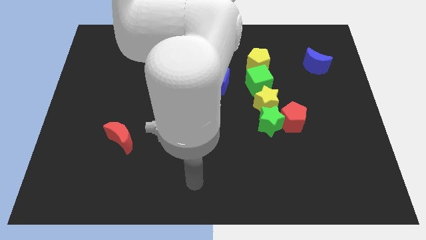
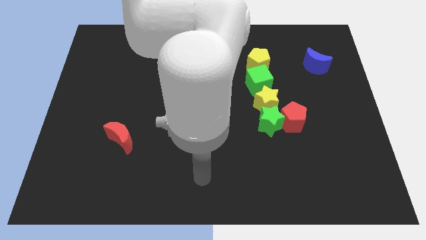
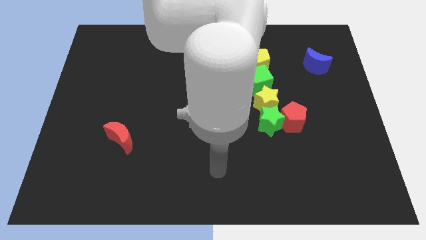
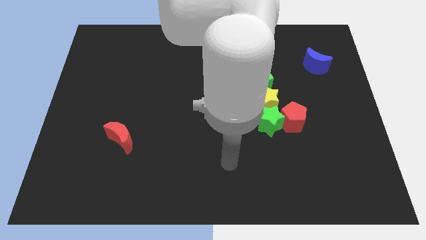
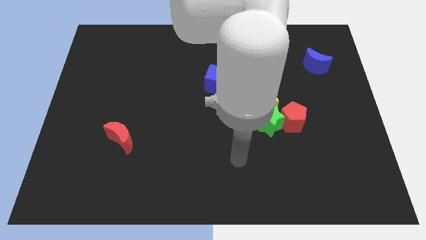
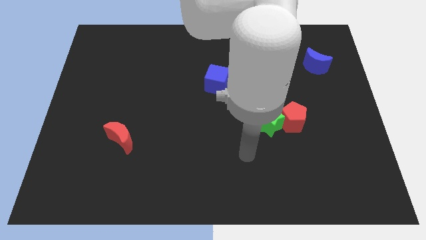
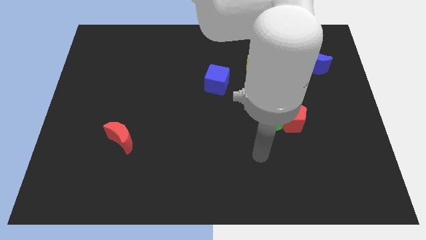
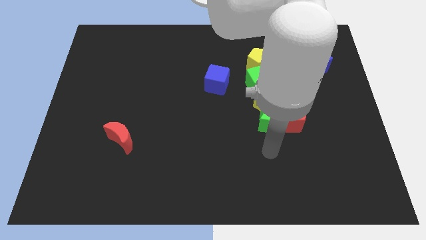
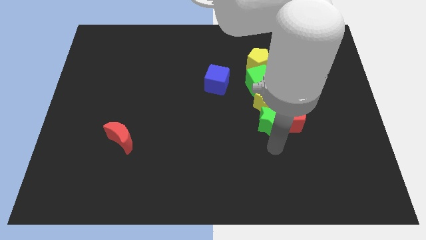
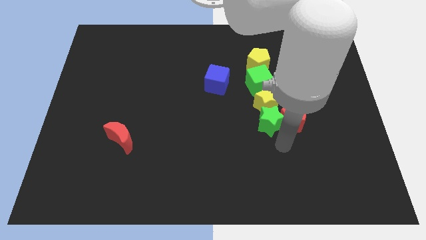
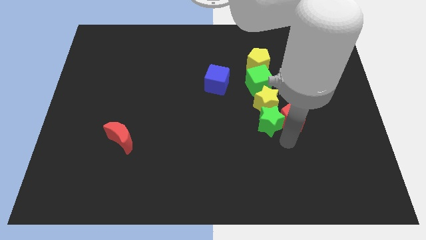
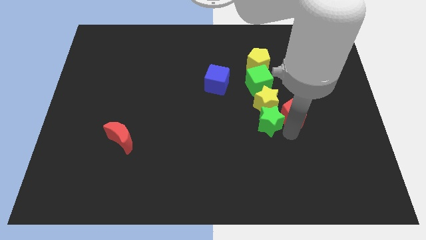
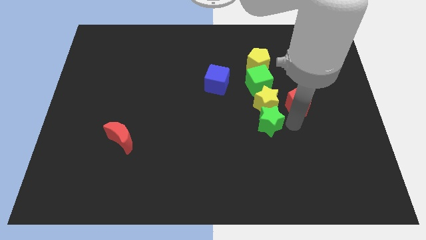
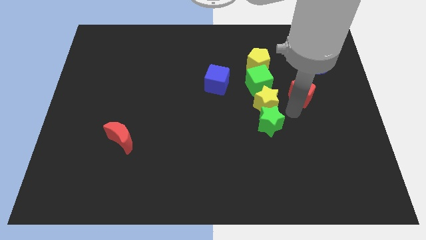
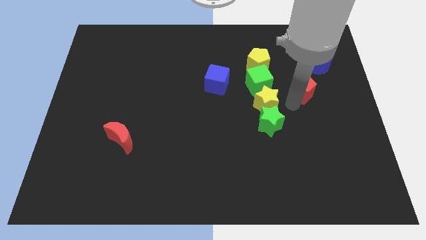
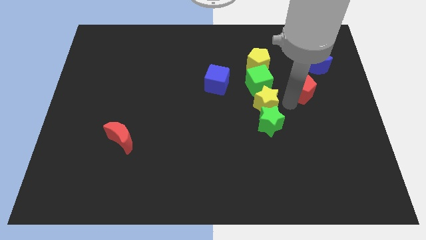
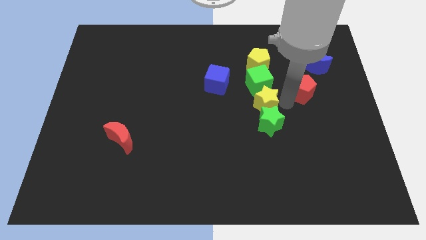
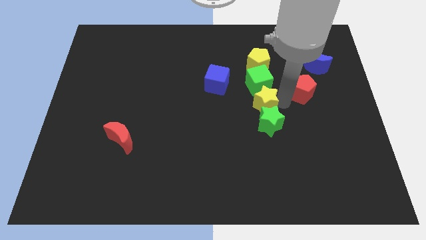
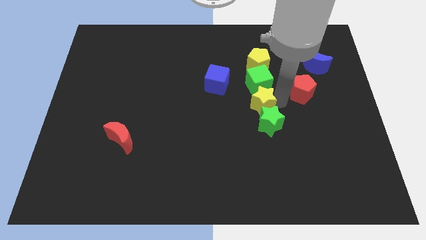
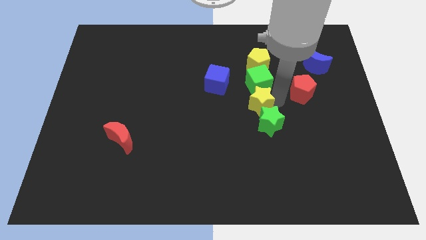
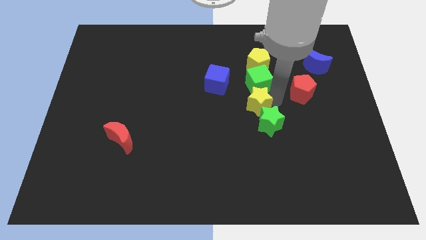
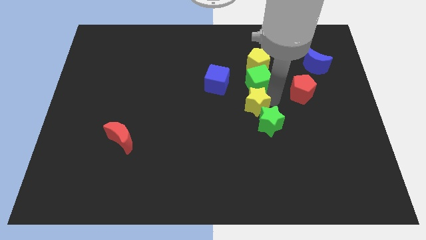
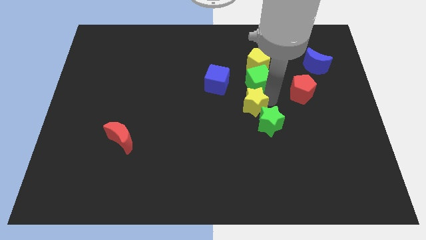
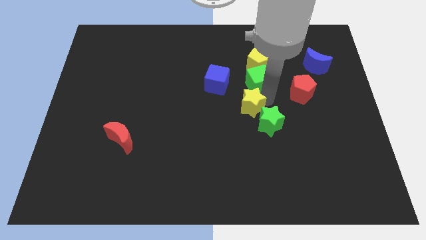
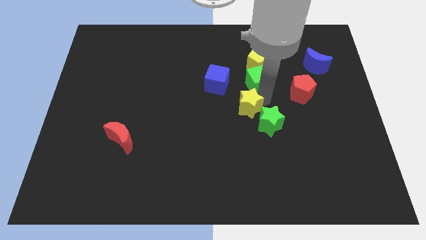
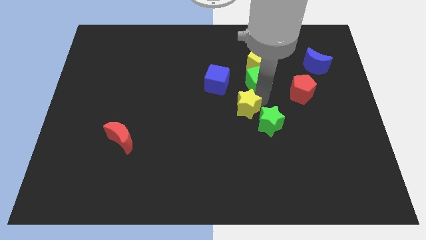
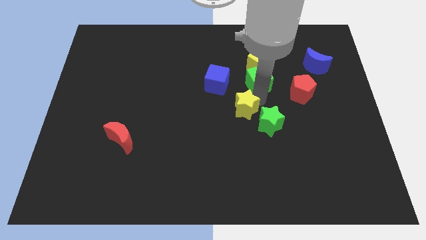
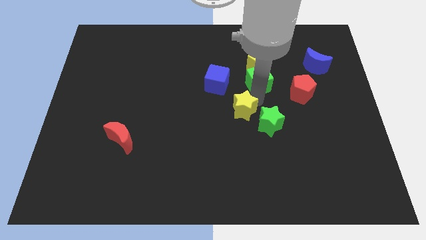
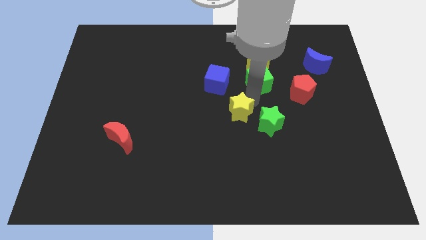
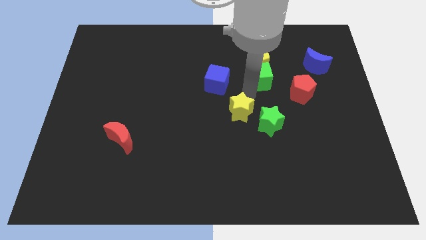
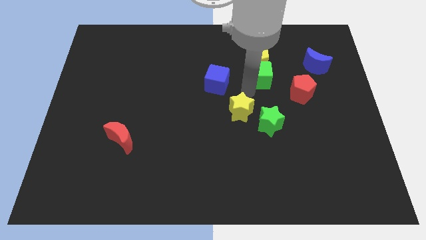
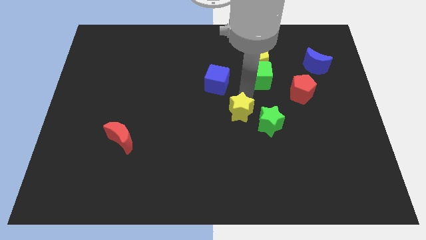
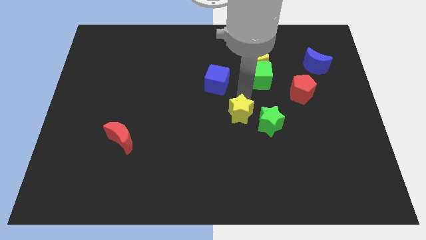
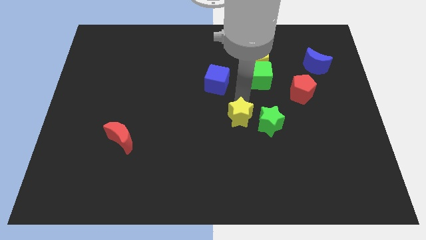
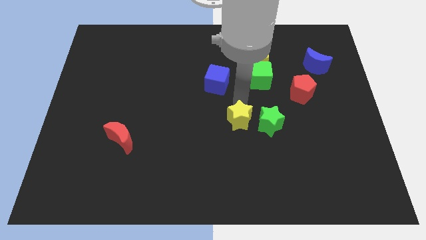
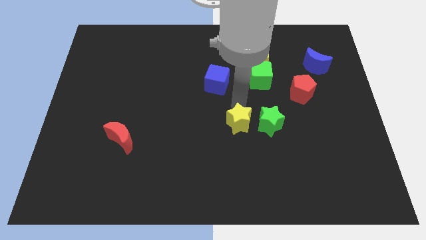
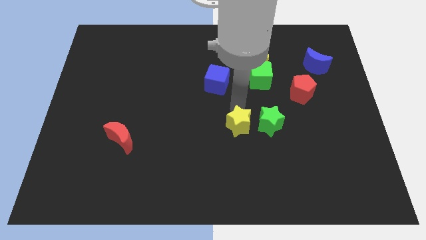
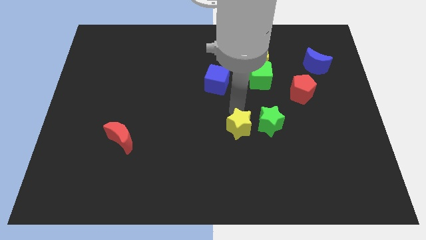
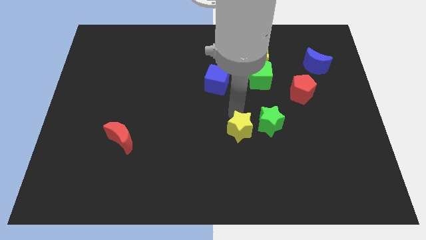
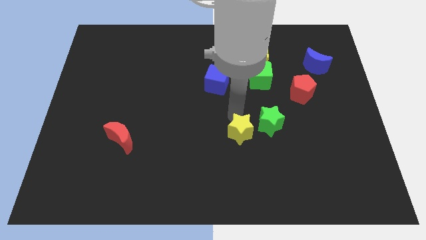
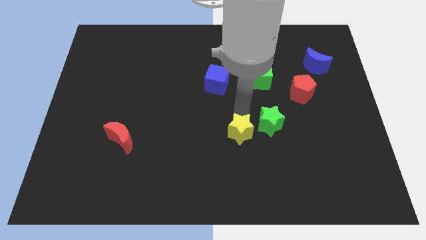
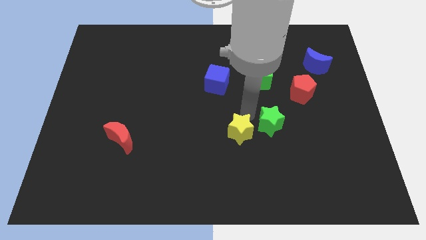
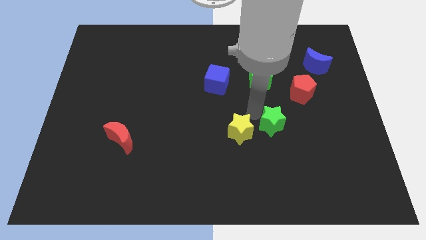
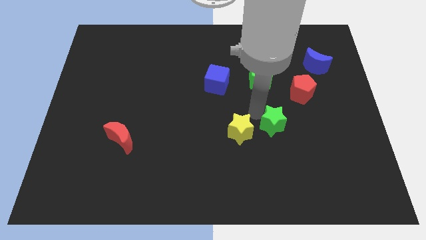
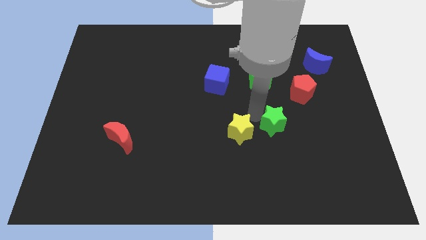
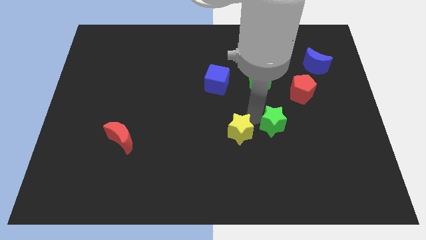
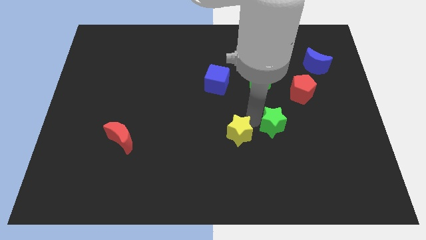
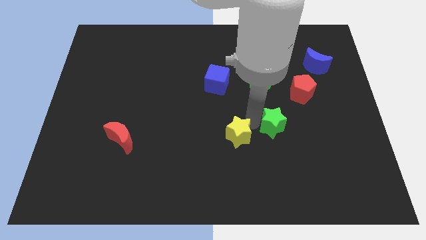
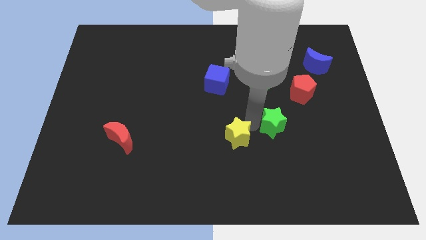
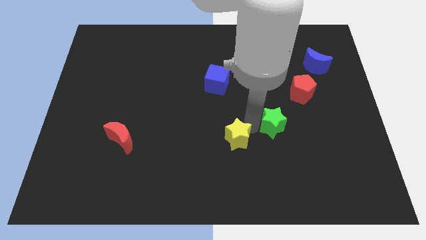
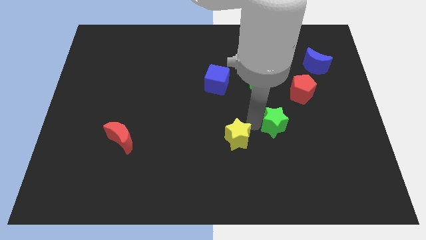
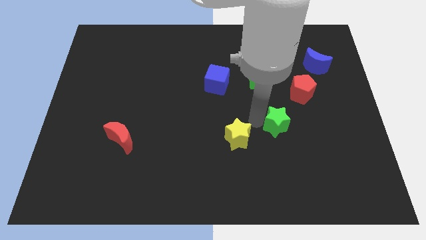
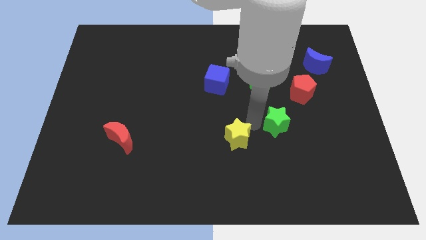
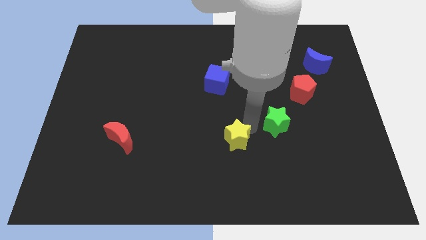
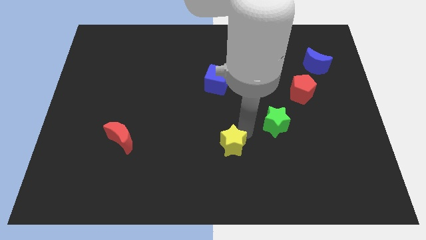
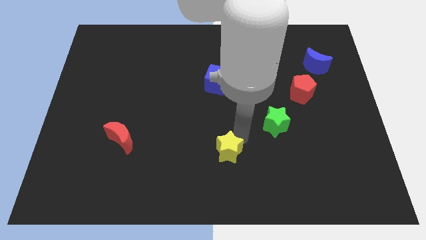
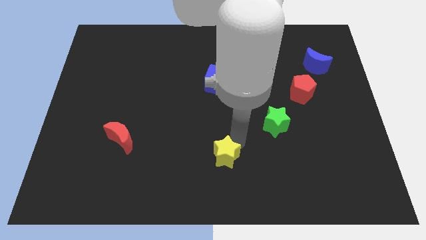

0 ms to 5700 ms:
move the yellow star to the bottom
